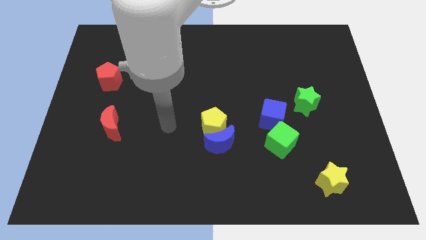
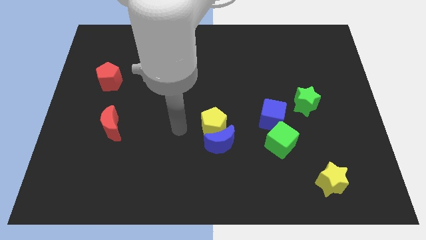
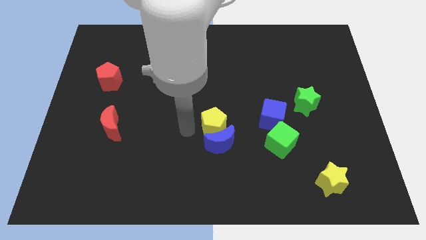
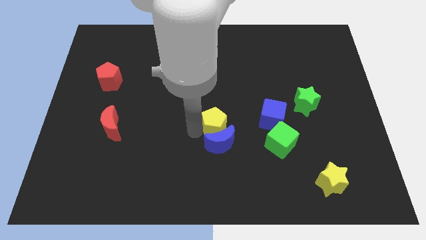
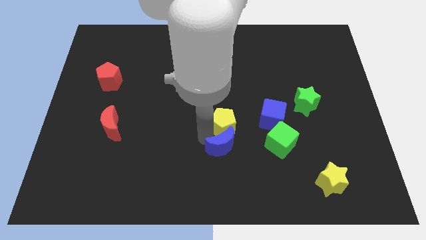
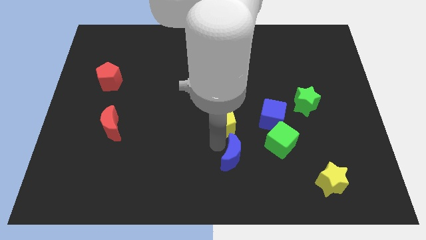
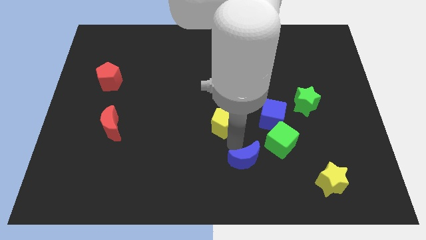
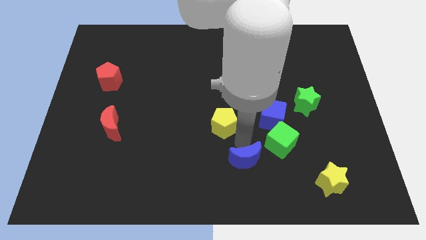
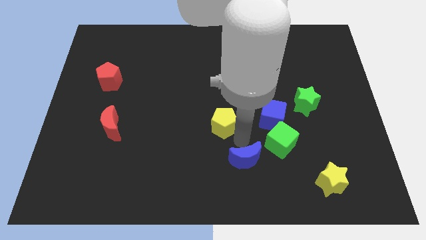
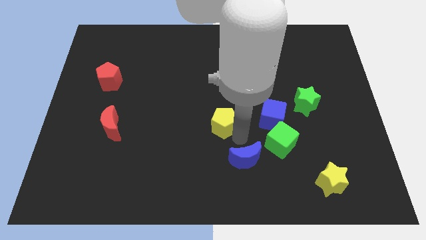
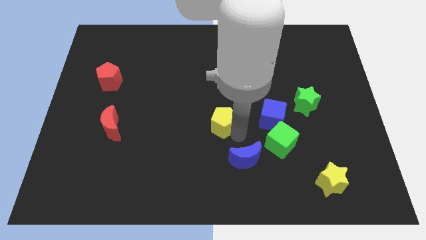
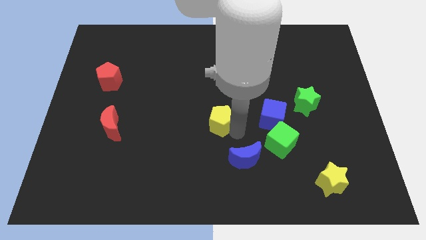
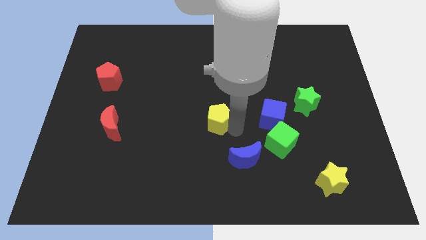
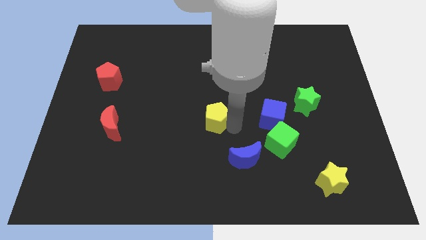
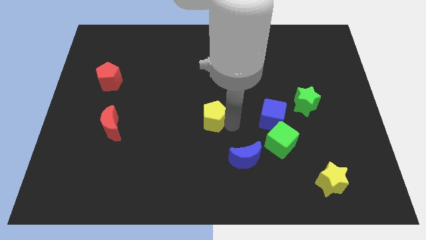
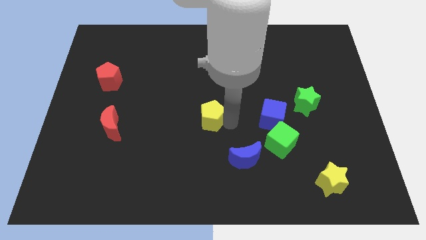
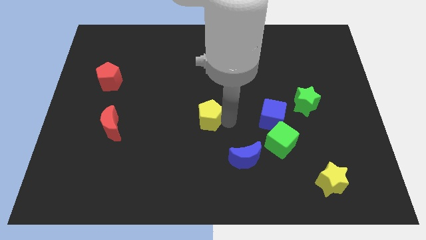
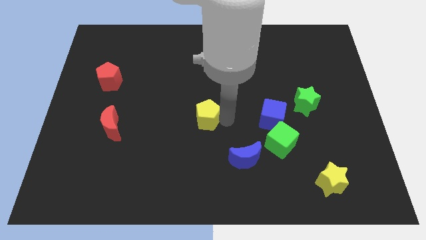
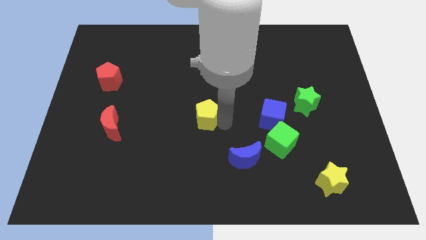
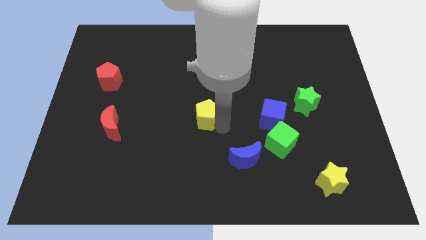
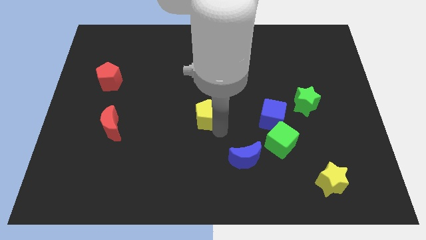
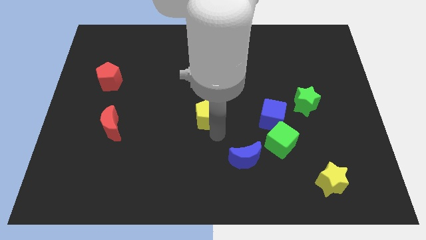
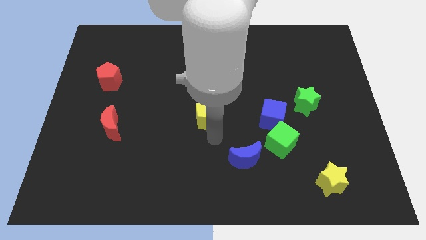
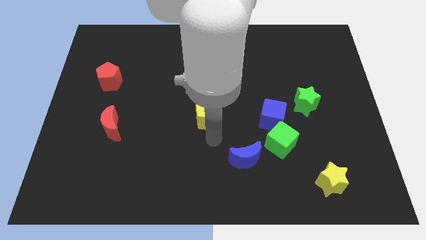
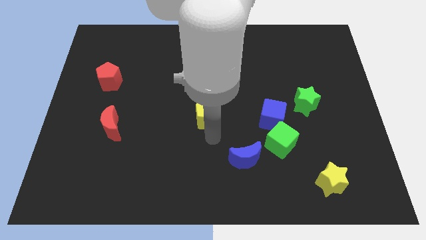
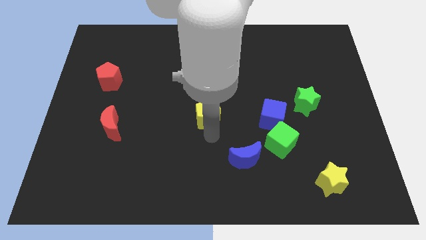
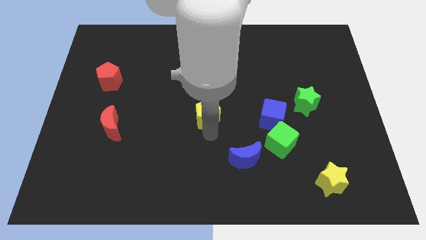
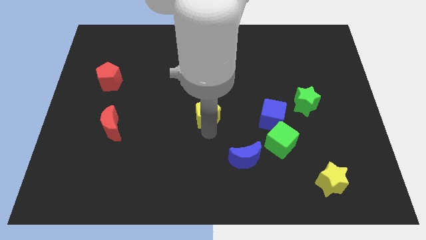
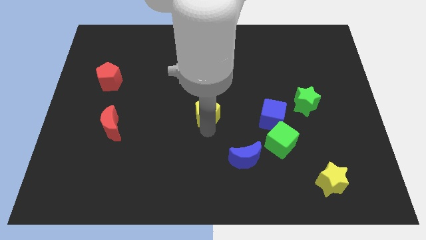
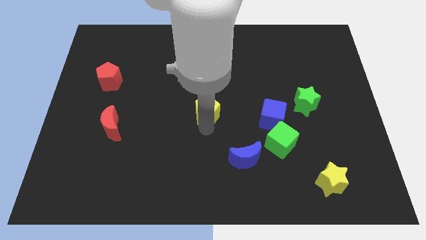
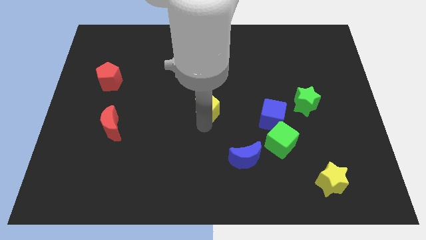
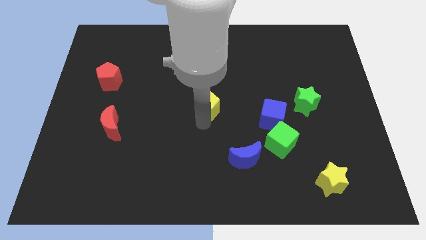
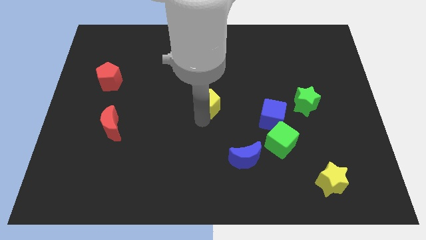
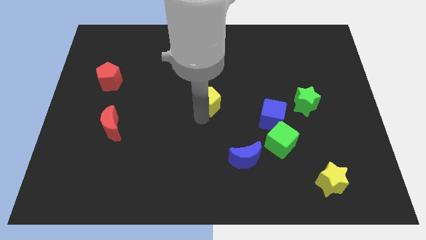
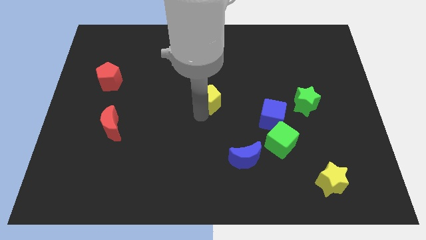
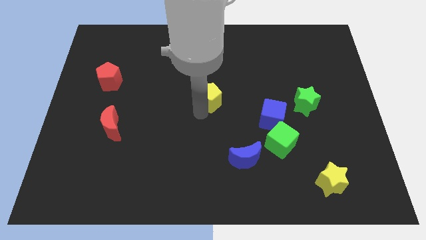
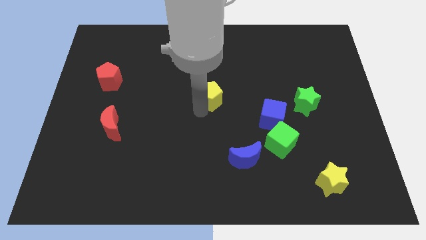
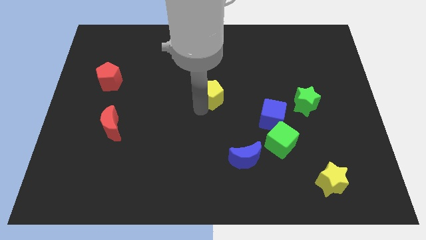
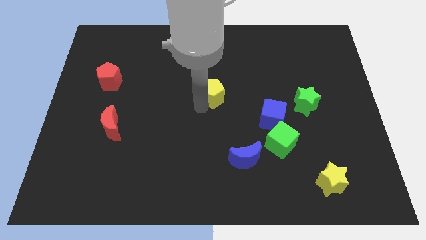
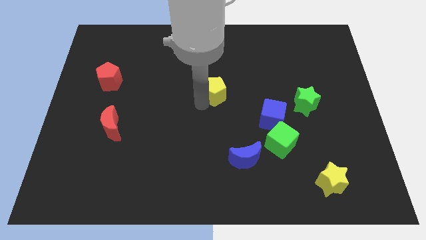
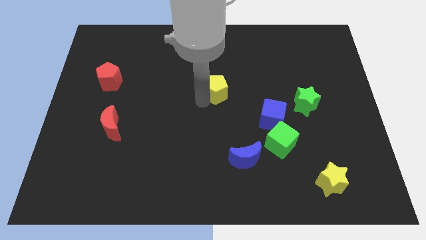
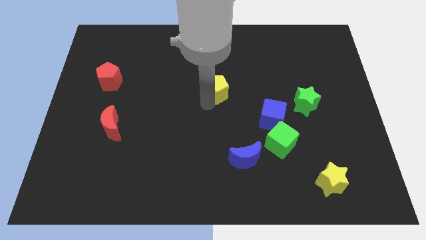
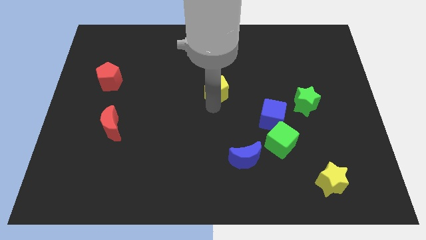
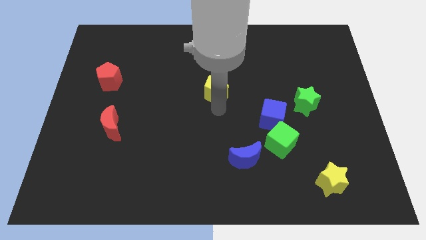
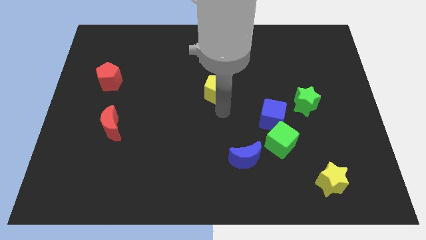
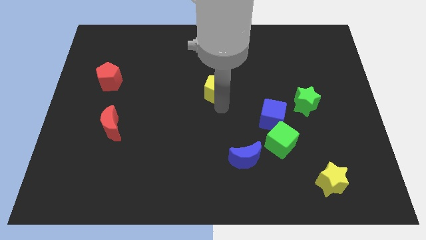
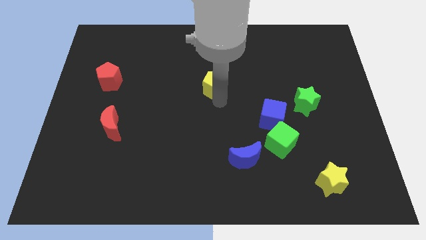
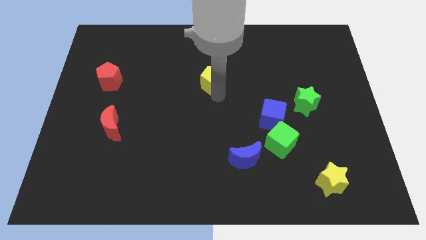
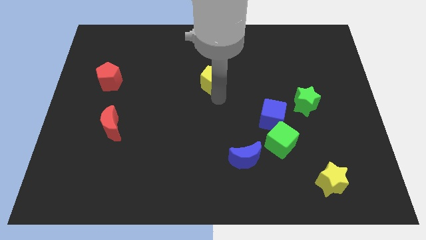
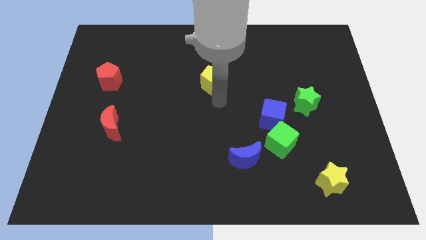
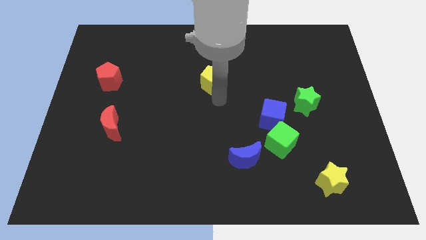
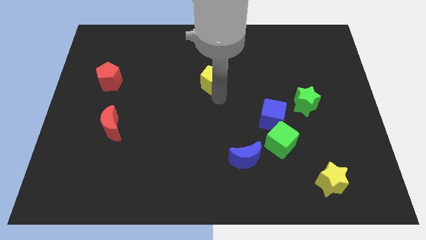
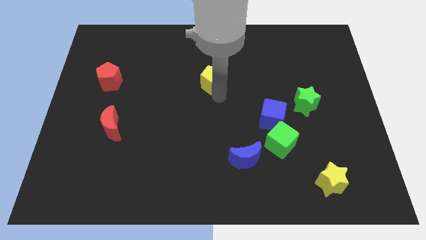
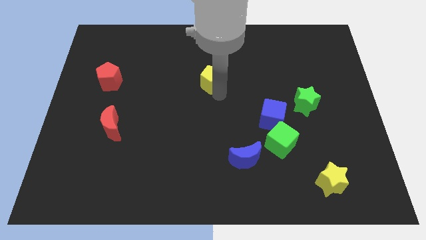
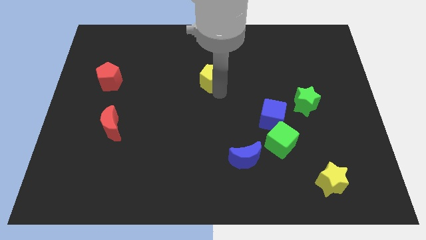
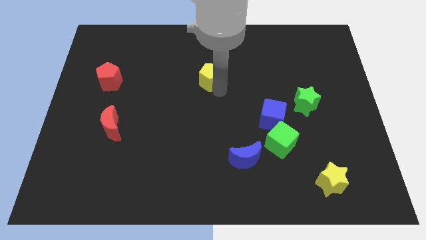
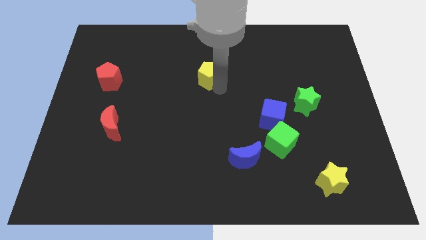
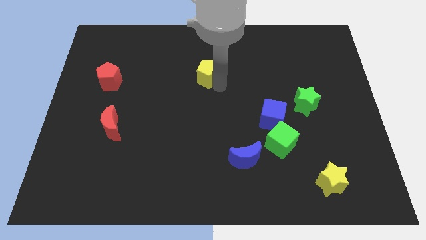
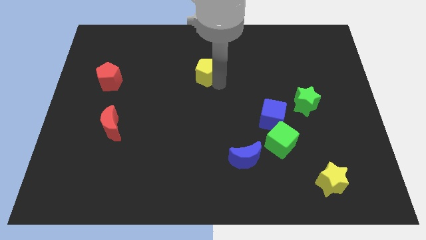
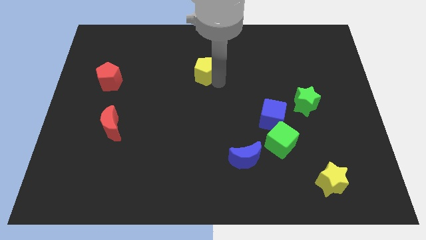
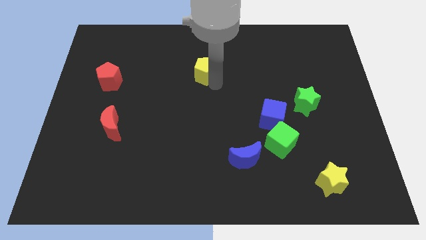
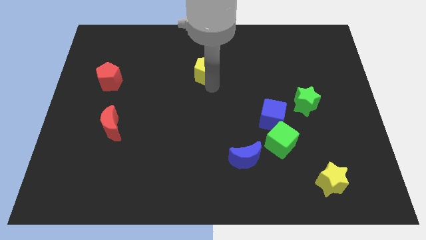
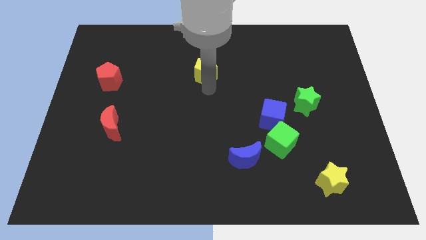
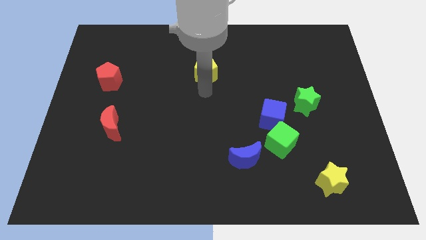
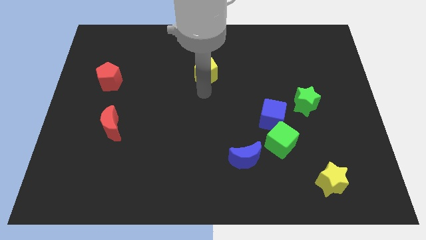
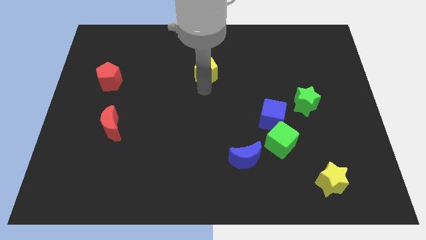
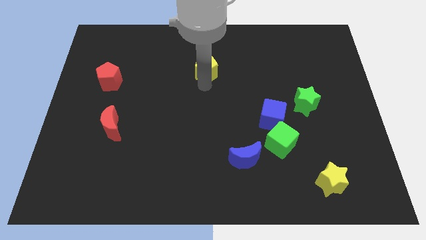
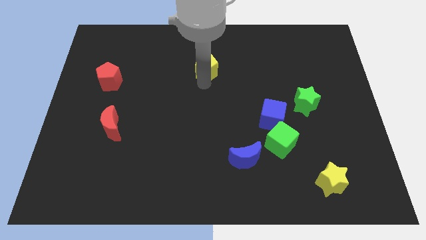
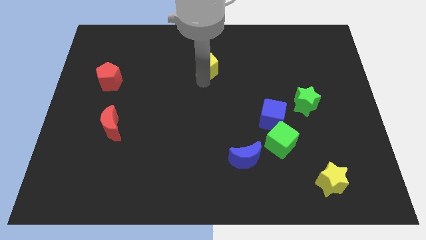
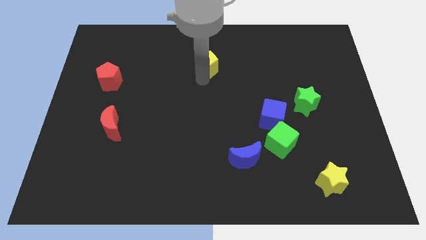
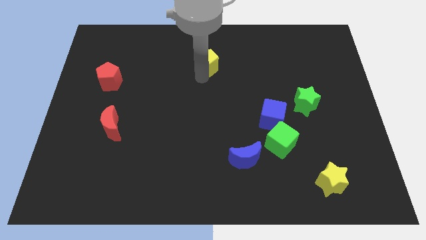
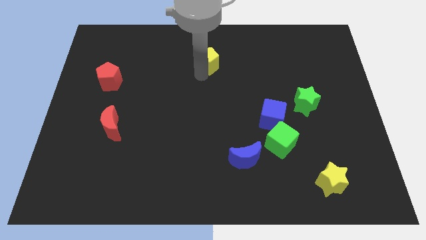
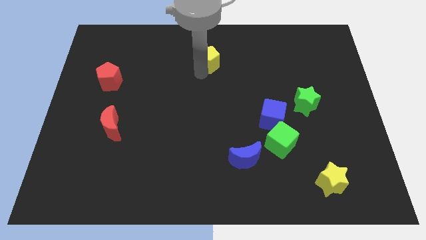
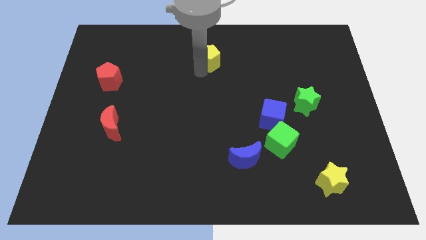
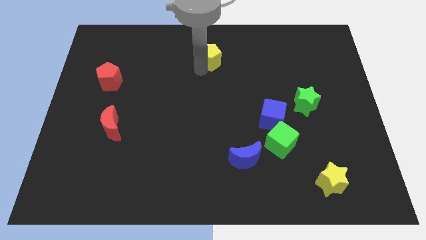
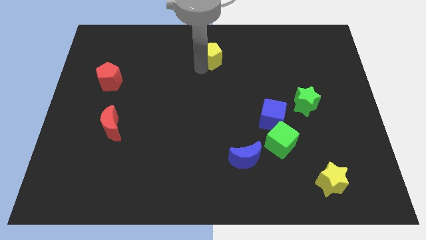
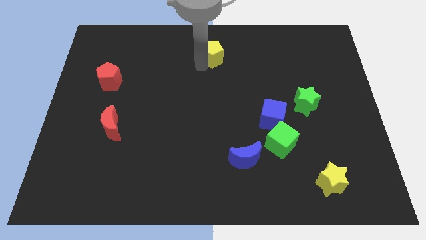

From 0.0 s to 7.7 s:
slide the yellow pentagon to the top
